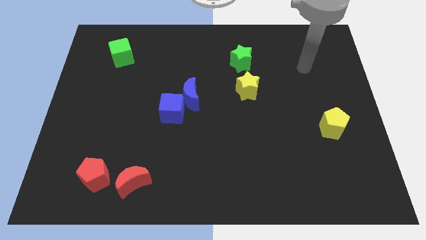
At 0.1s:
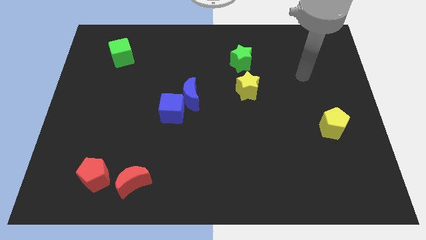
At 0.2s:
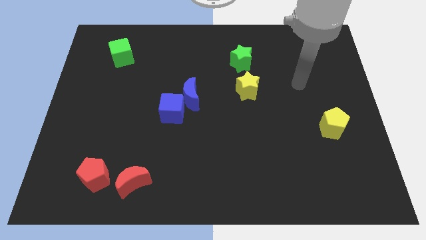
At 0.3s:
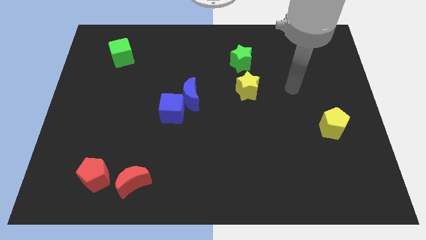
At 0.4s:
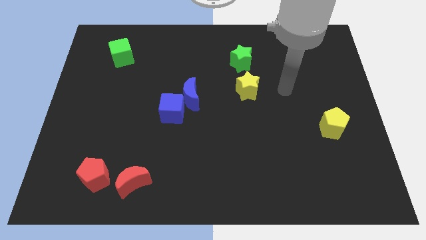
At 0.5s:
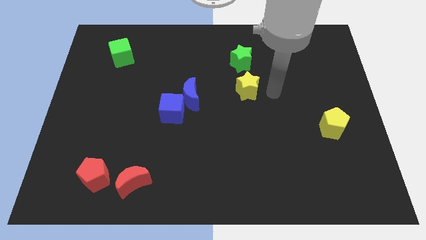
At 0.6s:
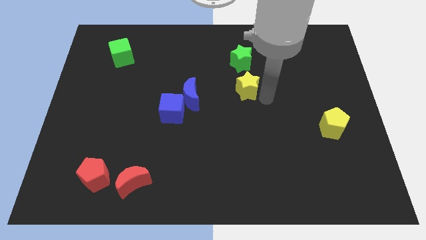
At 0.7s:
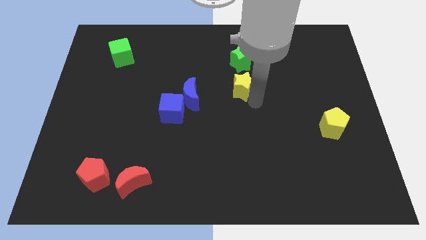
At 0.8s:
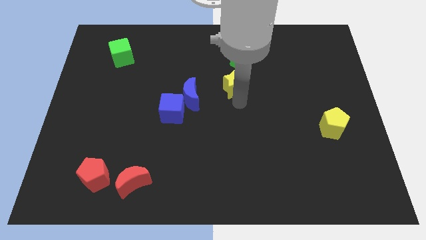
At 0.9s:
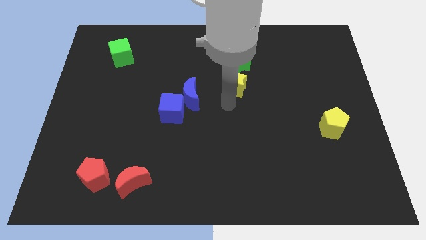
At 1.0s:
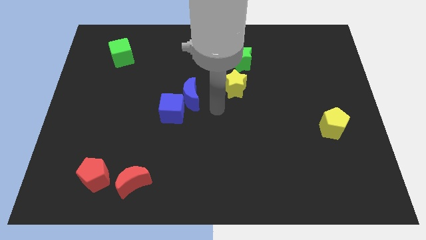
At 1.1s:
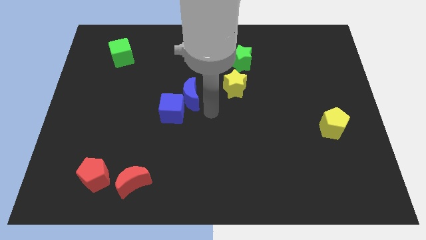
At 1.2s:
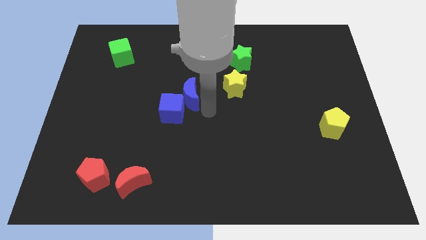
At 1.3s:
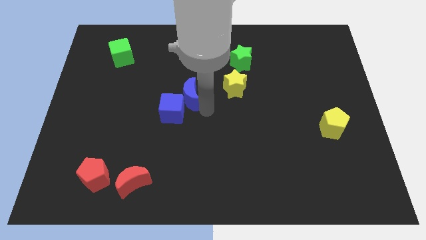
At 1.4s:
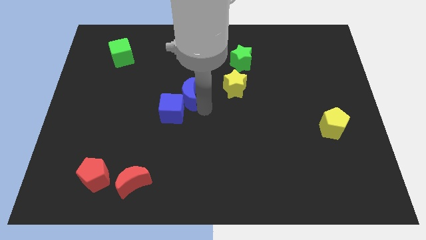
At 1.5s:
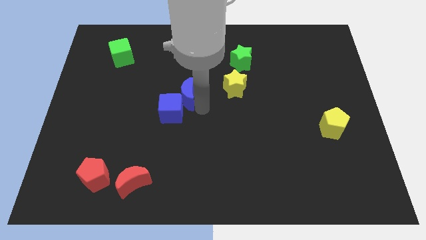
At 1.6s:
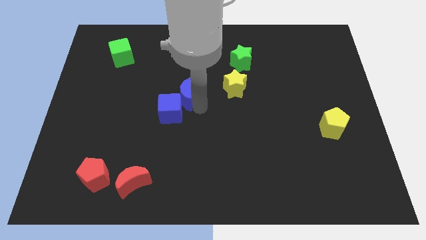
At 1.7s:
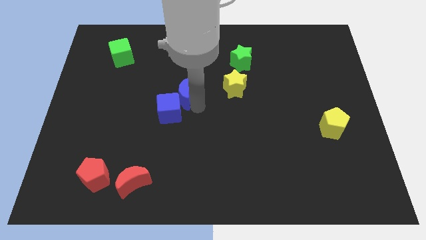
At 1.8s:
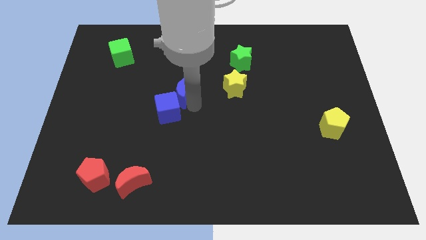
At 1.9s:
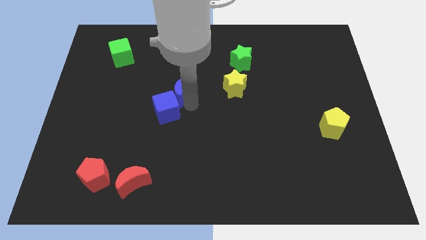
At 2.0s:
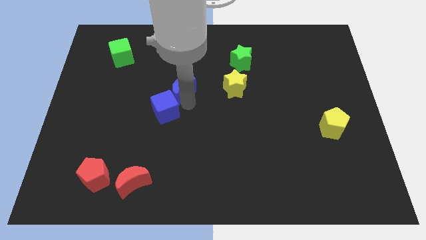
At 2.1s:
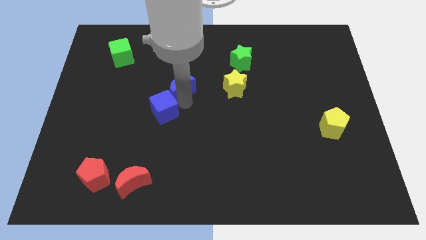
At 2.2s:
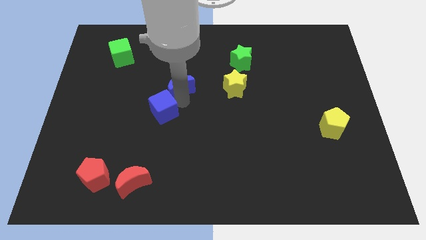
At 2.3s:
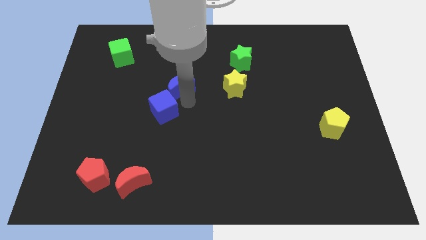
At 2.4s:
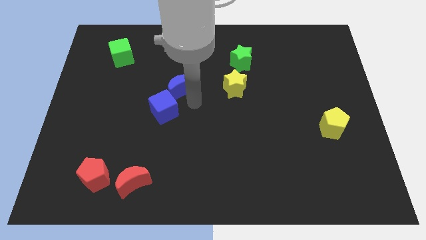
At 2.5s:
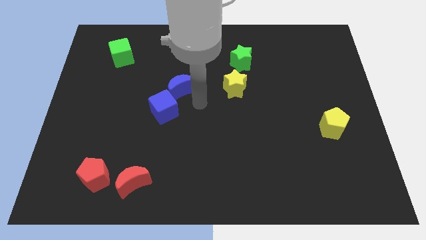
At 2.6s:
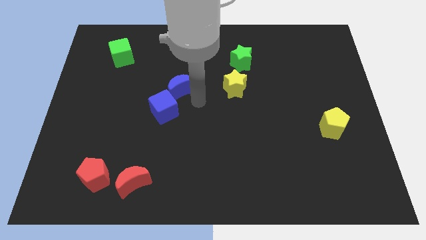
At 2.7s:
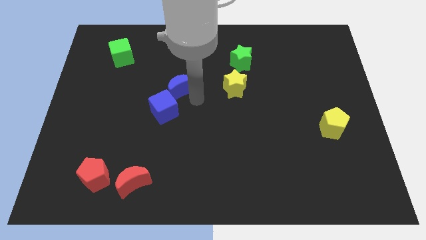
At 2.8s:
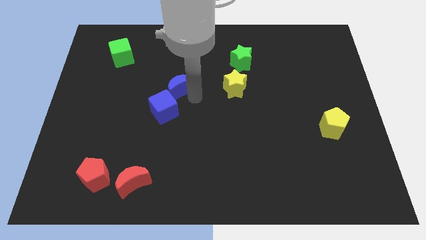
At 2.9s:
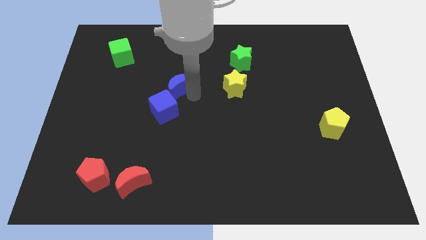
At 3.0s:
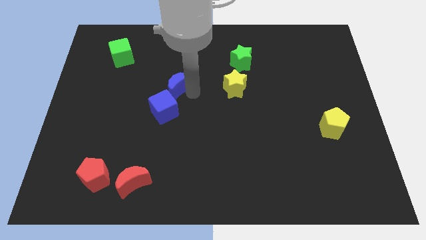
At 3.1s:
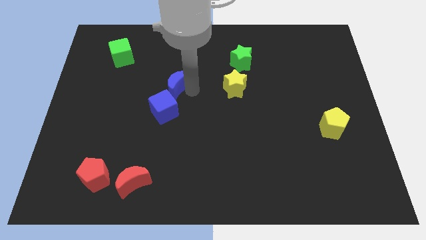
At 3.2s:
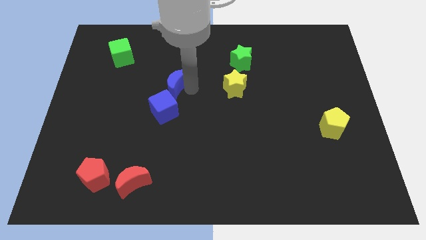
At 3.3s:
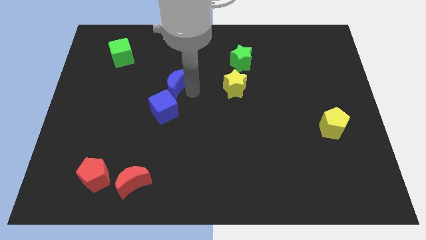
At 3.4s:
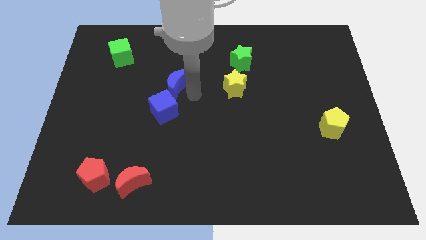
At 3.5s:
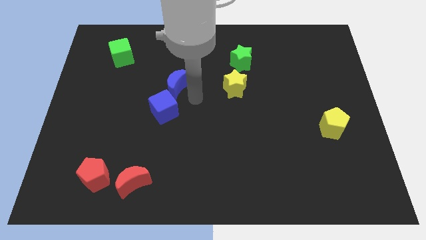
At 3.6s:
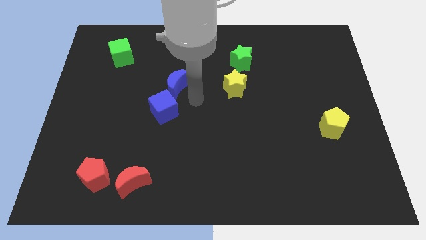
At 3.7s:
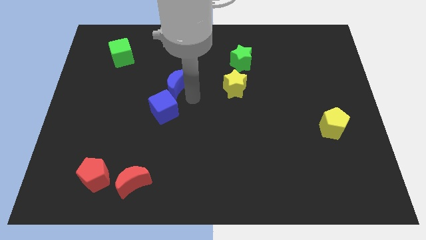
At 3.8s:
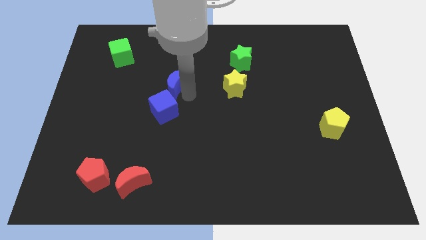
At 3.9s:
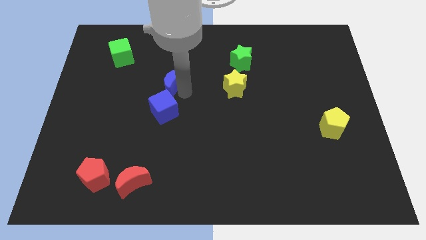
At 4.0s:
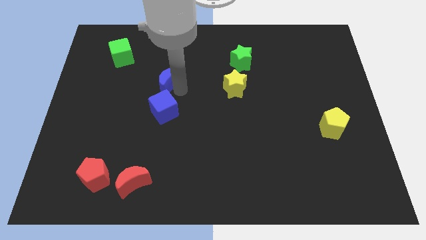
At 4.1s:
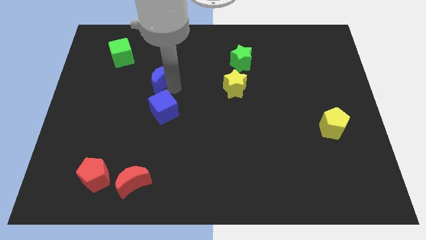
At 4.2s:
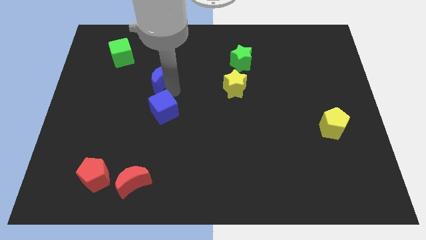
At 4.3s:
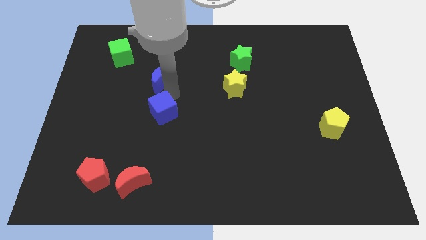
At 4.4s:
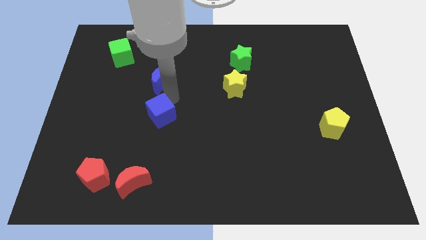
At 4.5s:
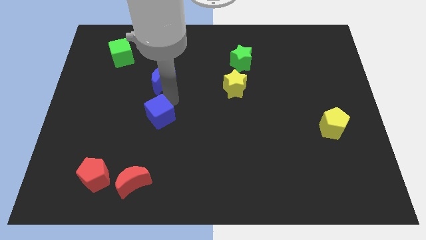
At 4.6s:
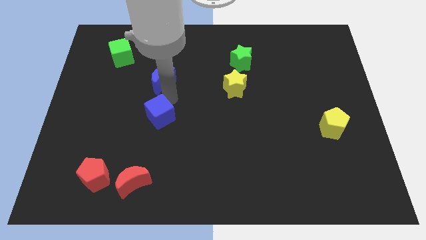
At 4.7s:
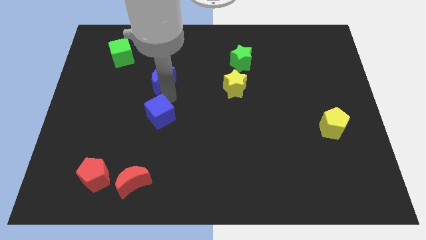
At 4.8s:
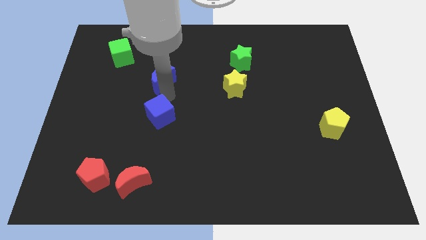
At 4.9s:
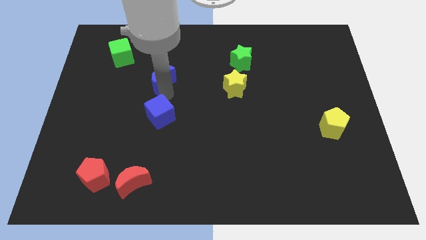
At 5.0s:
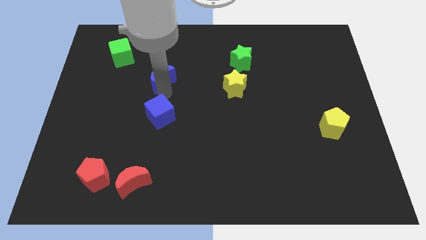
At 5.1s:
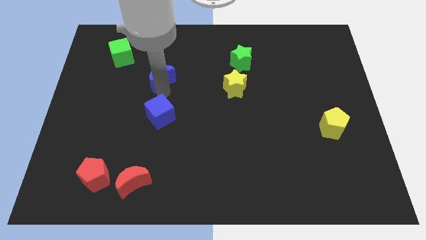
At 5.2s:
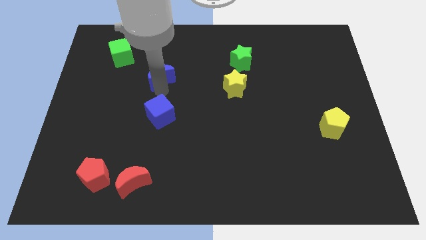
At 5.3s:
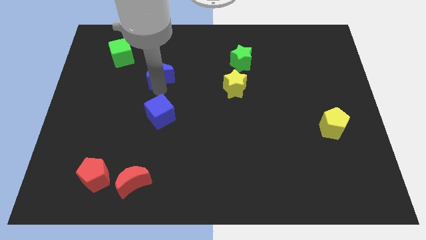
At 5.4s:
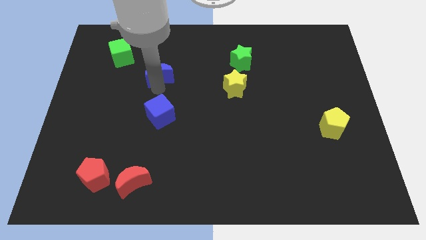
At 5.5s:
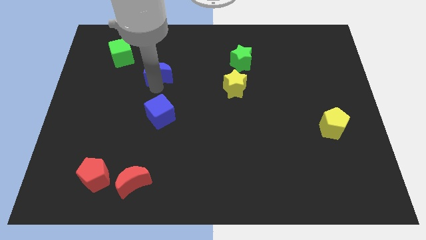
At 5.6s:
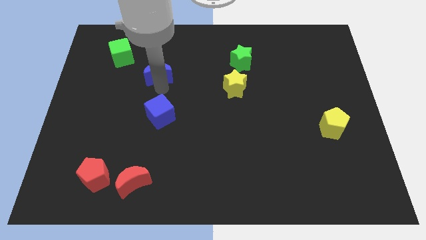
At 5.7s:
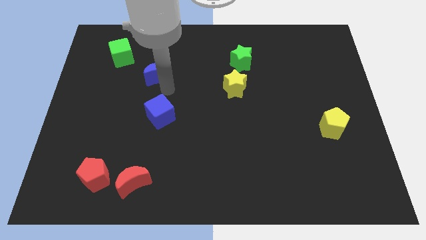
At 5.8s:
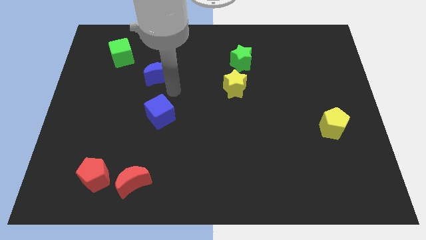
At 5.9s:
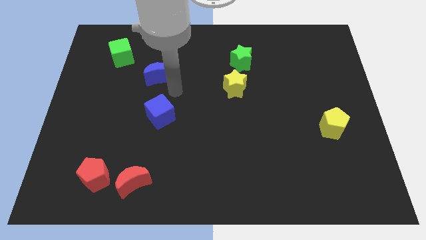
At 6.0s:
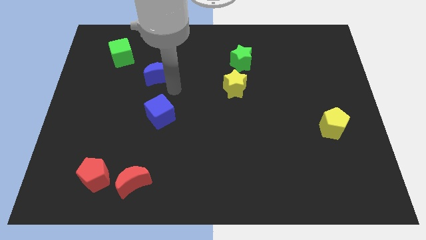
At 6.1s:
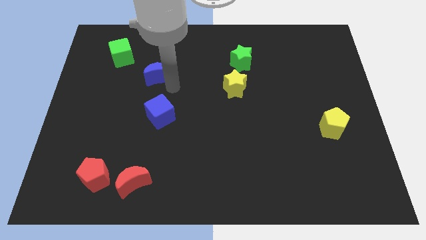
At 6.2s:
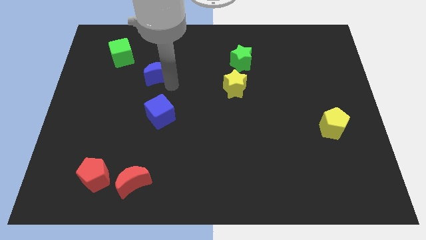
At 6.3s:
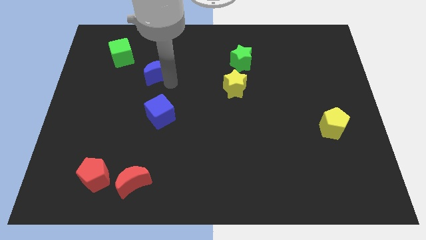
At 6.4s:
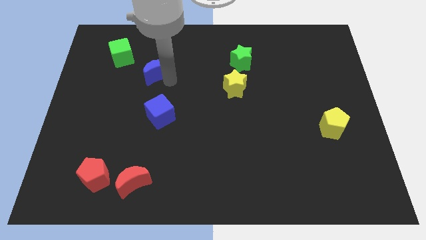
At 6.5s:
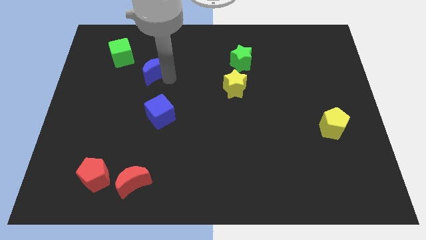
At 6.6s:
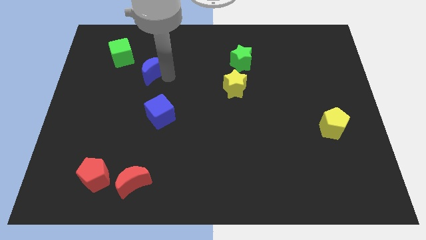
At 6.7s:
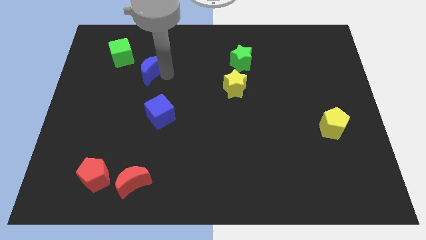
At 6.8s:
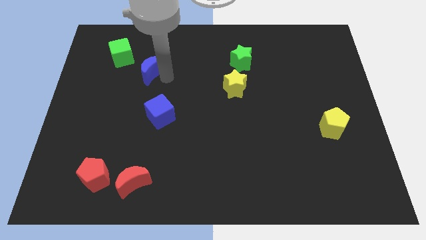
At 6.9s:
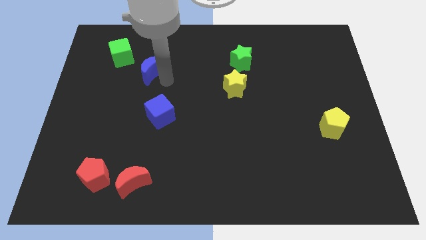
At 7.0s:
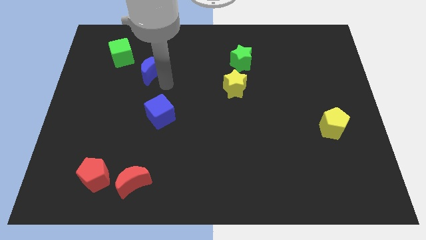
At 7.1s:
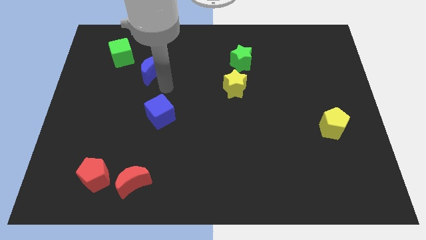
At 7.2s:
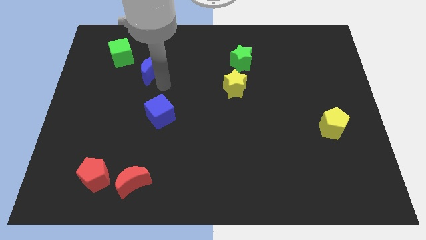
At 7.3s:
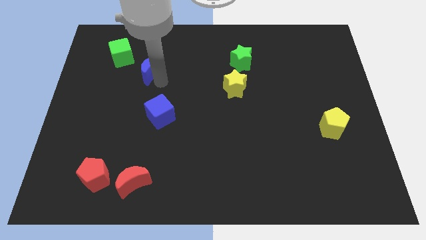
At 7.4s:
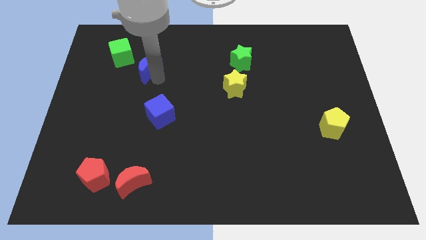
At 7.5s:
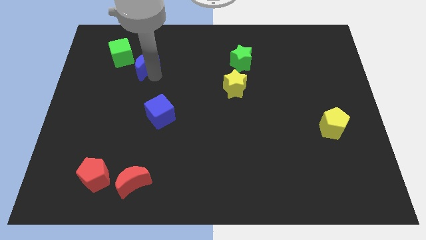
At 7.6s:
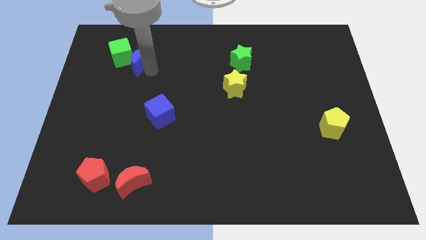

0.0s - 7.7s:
move the blue moon to the green cube

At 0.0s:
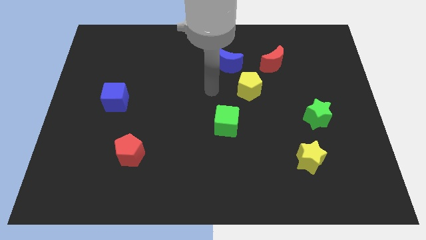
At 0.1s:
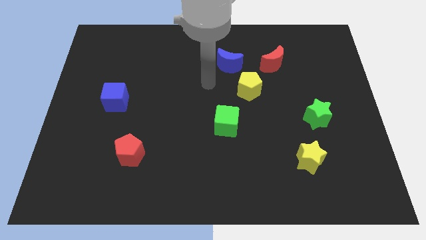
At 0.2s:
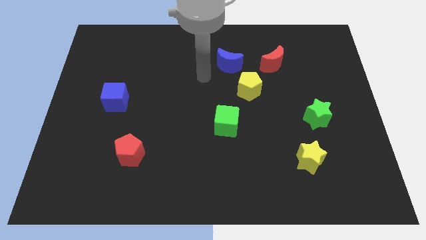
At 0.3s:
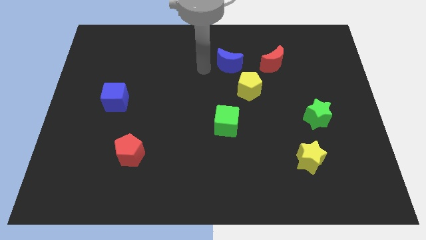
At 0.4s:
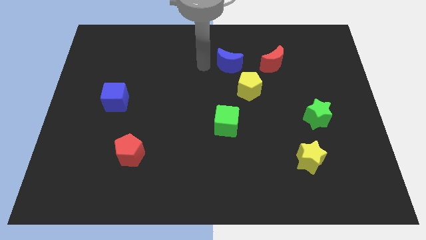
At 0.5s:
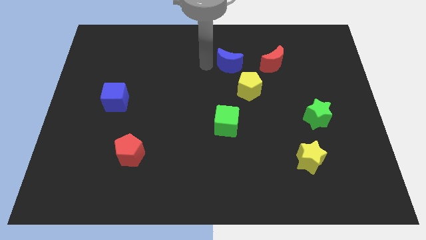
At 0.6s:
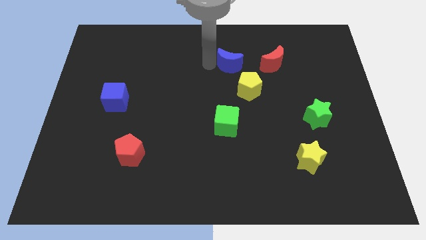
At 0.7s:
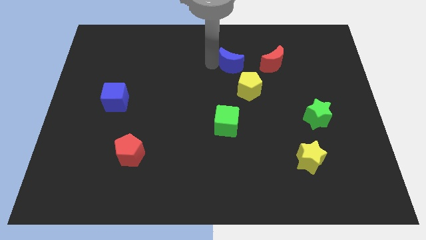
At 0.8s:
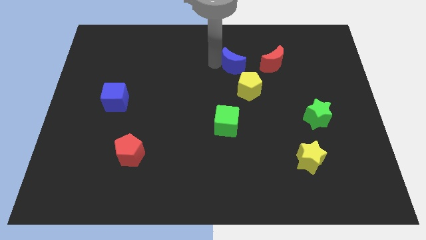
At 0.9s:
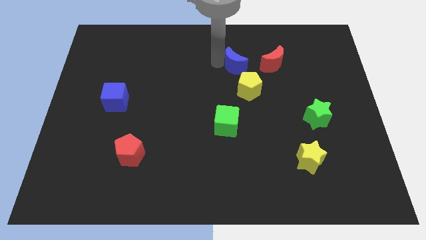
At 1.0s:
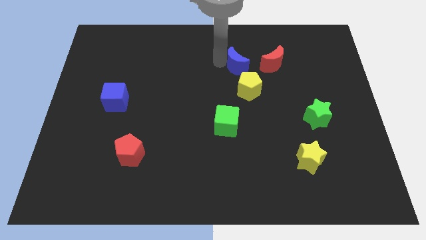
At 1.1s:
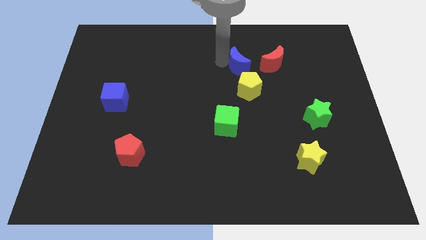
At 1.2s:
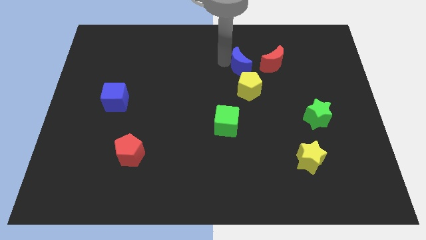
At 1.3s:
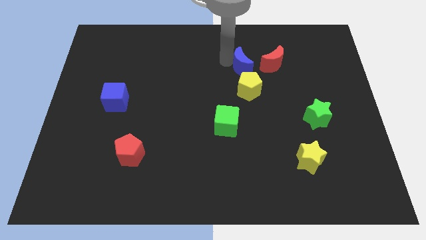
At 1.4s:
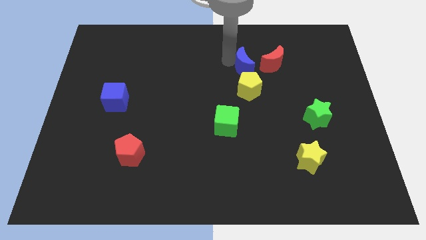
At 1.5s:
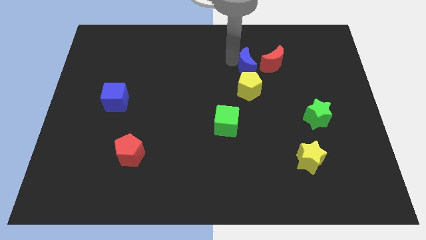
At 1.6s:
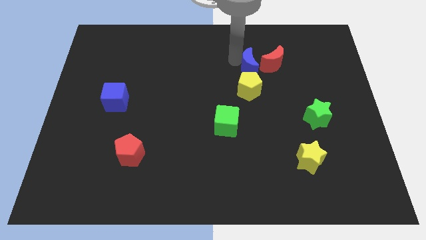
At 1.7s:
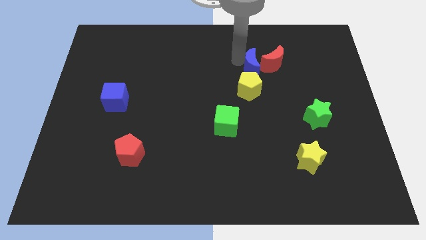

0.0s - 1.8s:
put the blue moon next to the red moon
